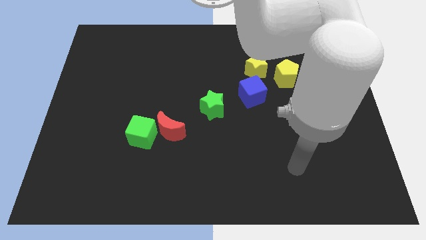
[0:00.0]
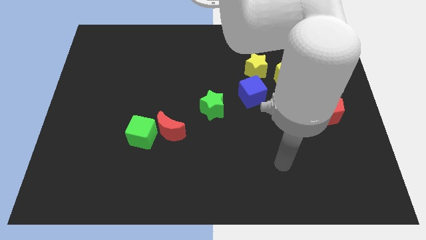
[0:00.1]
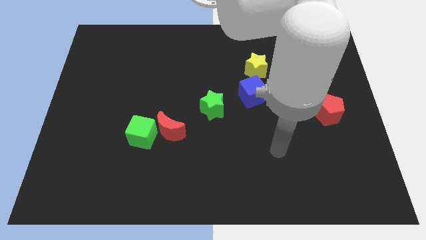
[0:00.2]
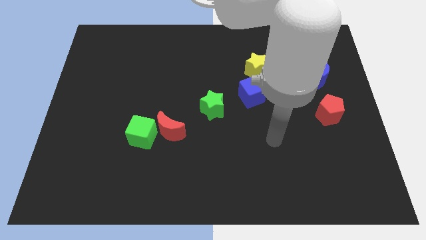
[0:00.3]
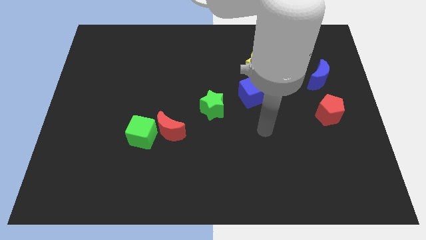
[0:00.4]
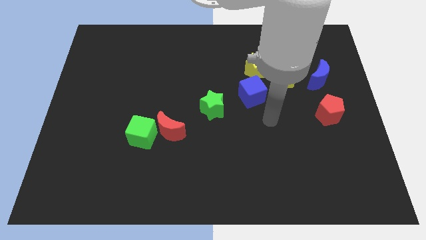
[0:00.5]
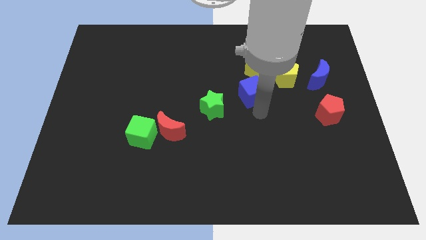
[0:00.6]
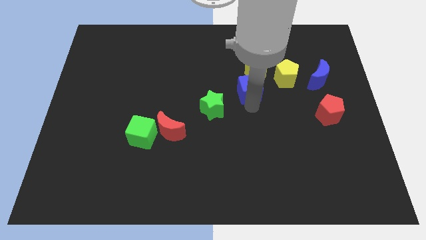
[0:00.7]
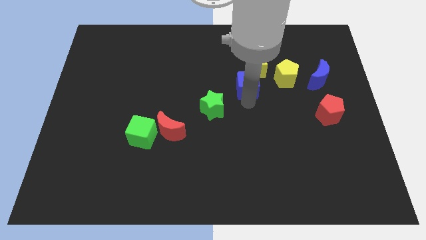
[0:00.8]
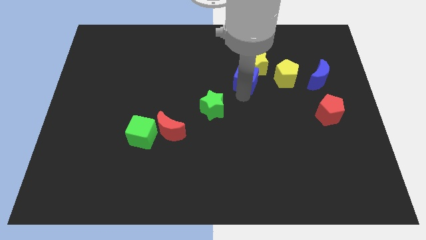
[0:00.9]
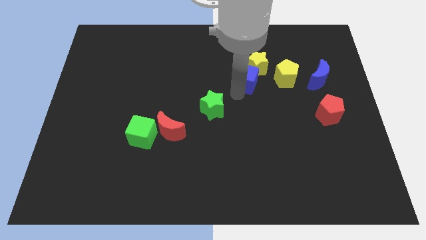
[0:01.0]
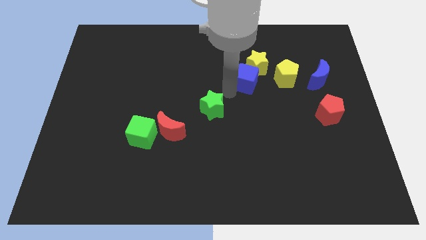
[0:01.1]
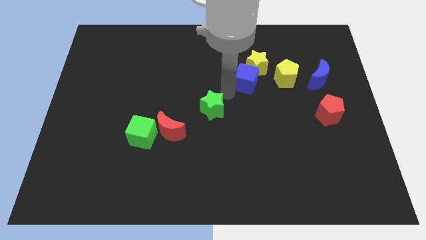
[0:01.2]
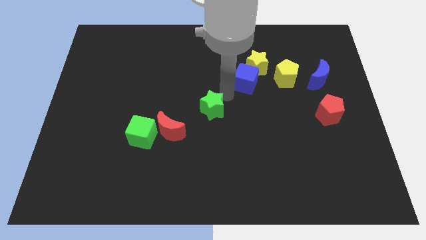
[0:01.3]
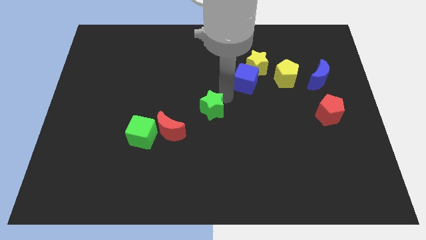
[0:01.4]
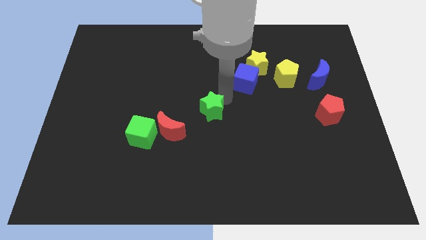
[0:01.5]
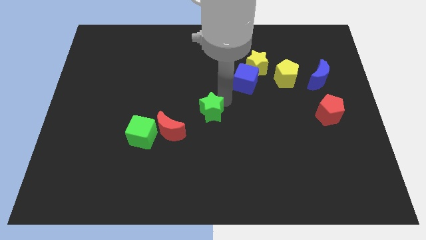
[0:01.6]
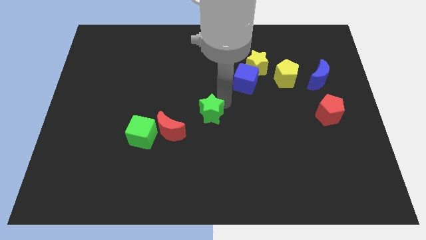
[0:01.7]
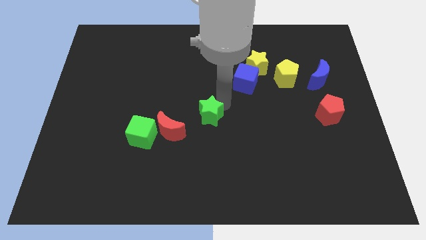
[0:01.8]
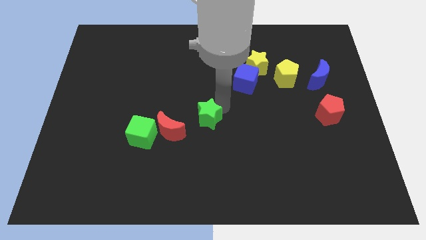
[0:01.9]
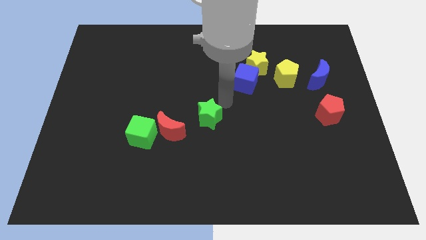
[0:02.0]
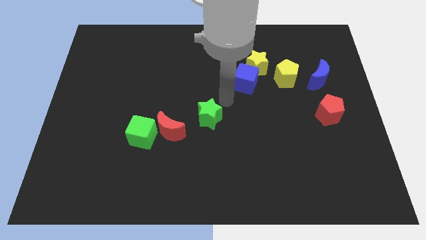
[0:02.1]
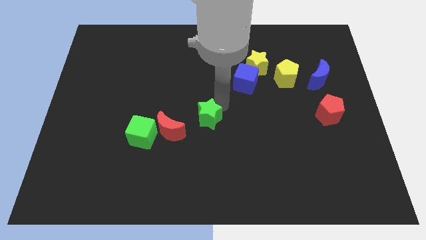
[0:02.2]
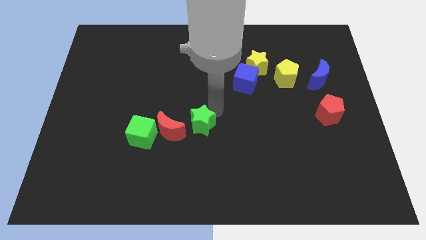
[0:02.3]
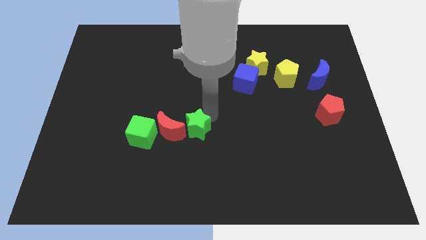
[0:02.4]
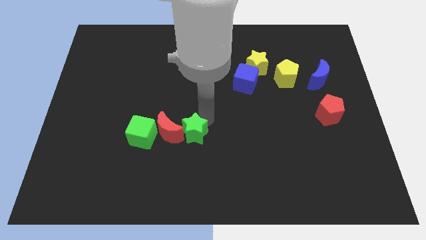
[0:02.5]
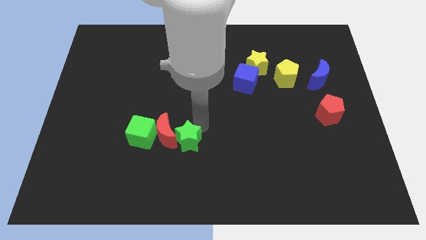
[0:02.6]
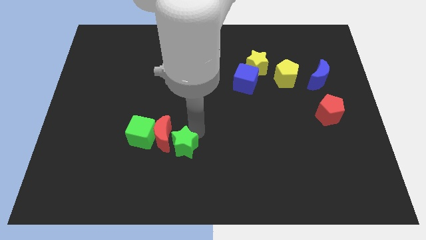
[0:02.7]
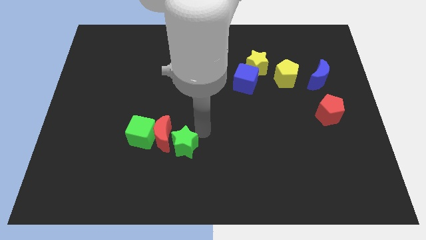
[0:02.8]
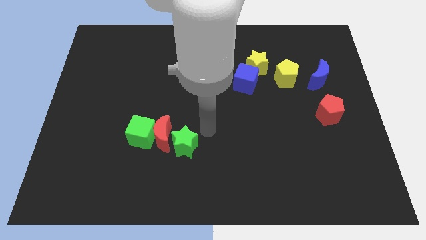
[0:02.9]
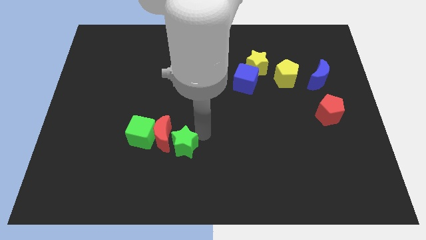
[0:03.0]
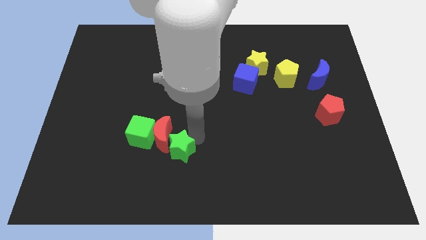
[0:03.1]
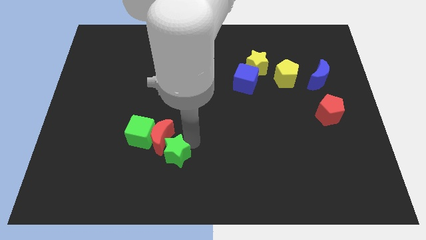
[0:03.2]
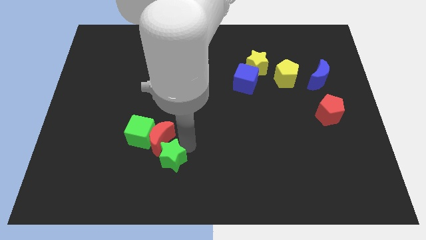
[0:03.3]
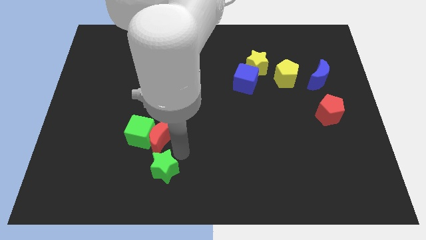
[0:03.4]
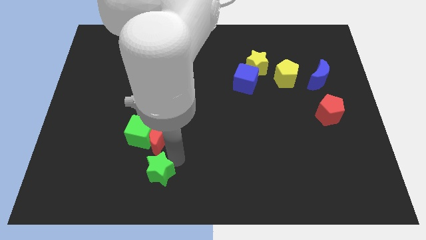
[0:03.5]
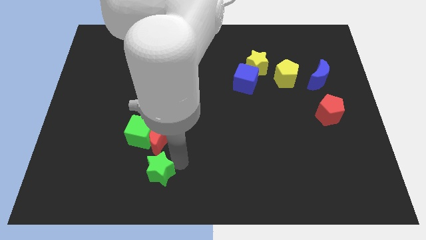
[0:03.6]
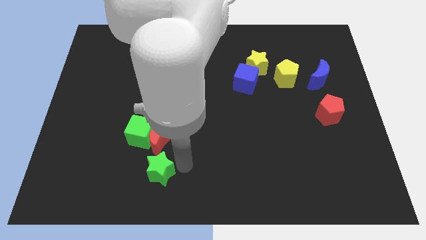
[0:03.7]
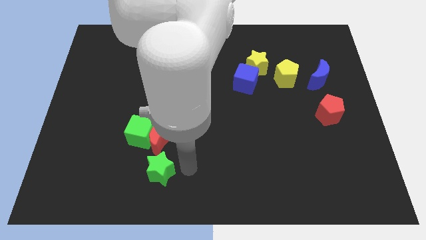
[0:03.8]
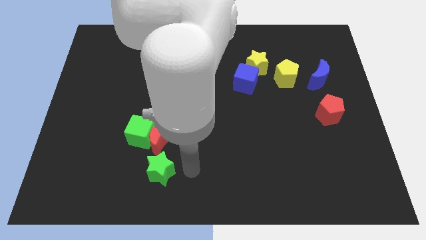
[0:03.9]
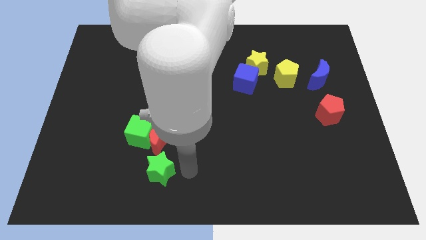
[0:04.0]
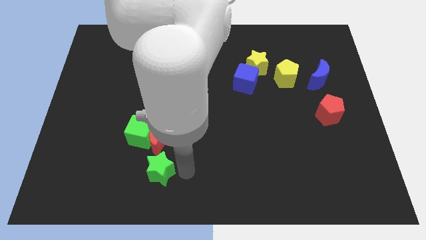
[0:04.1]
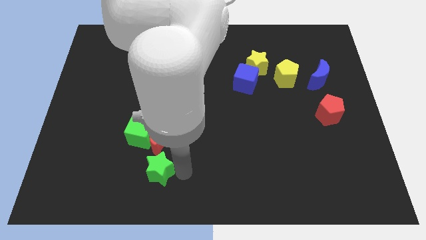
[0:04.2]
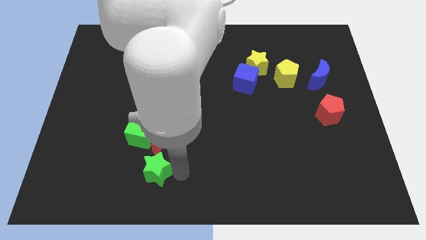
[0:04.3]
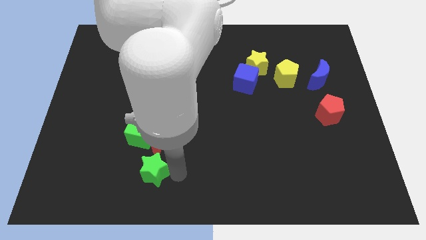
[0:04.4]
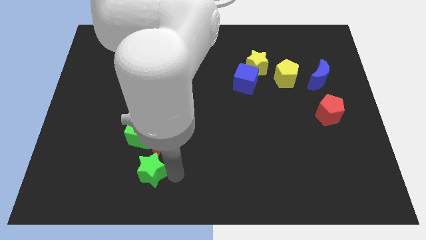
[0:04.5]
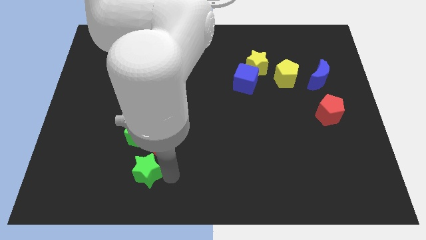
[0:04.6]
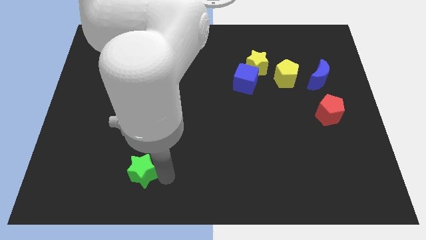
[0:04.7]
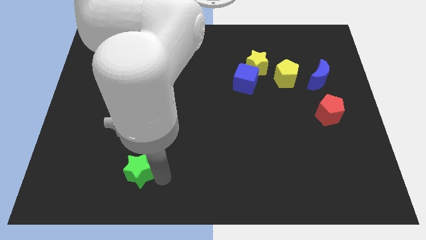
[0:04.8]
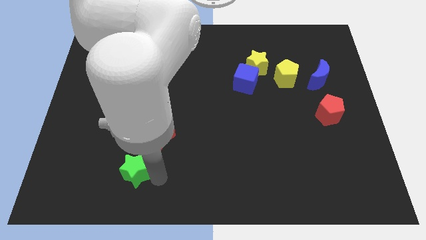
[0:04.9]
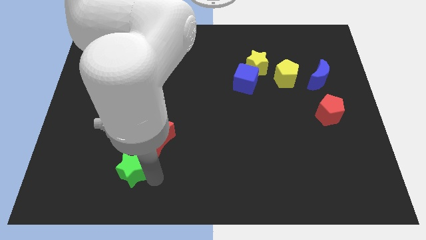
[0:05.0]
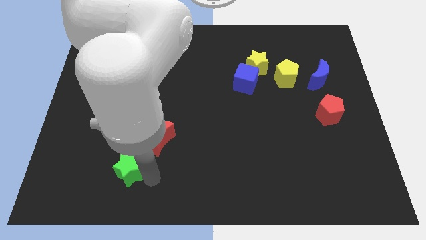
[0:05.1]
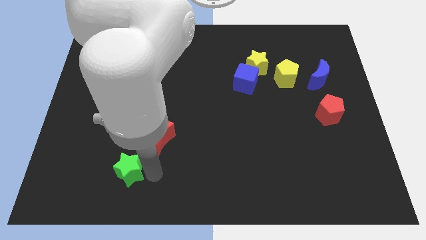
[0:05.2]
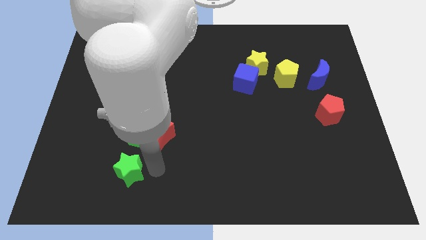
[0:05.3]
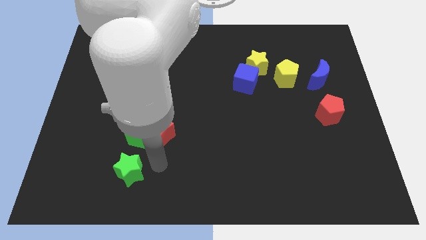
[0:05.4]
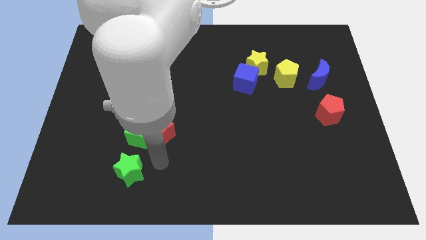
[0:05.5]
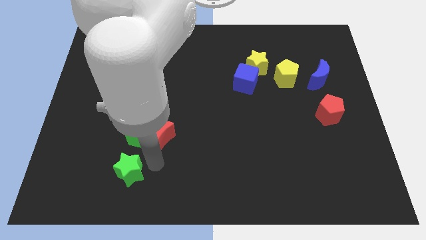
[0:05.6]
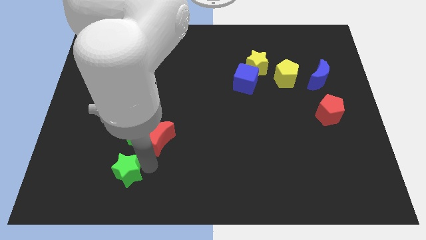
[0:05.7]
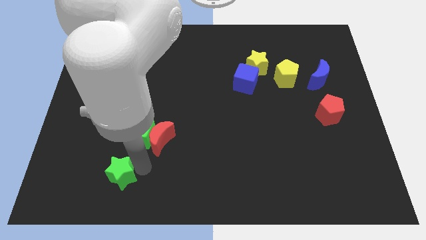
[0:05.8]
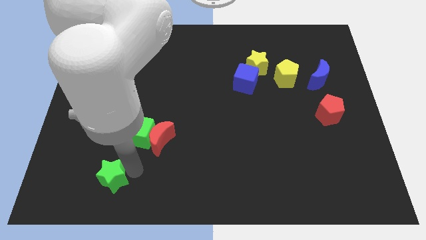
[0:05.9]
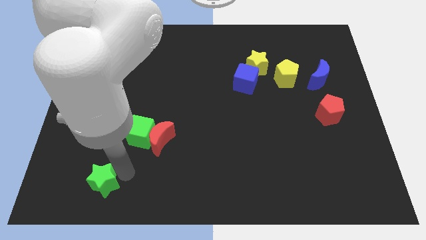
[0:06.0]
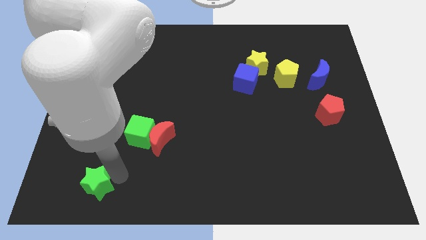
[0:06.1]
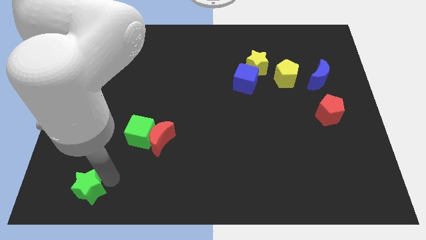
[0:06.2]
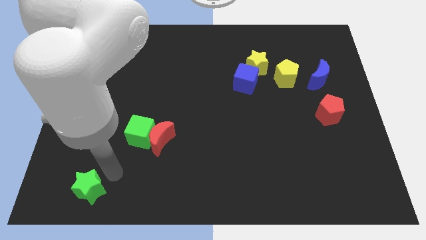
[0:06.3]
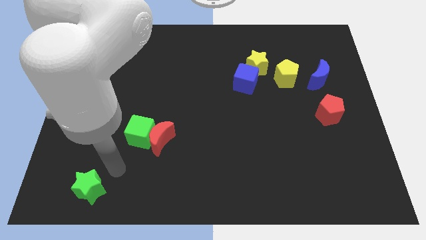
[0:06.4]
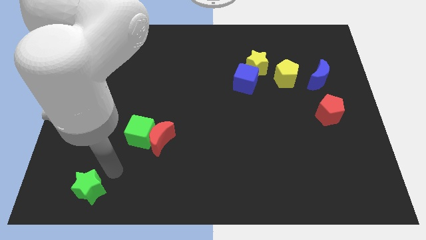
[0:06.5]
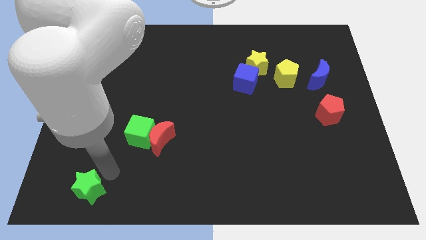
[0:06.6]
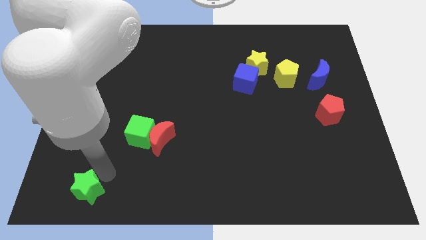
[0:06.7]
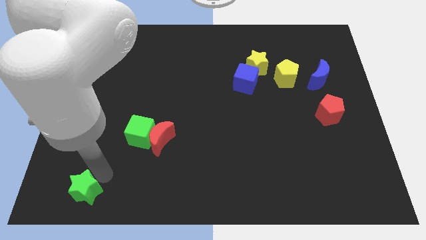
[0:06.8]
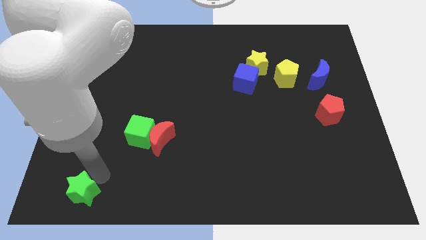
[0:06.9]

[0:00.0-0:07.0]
slide the green star to the bottom left
